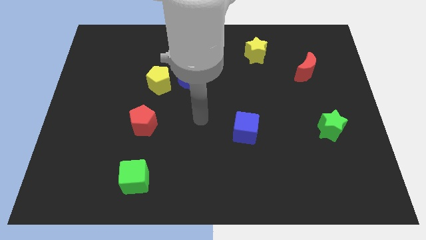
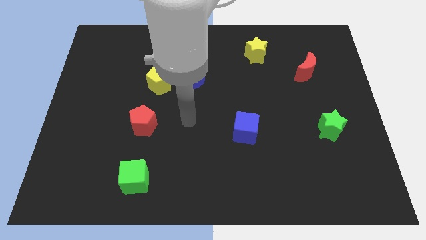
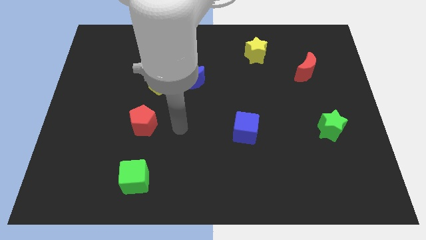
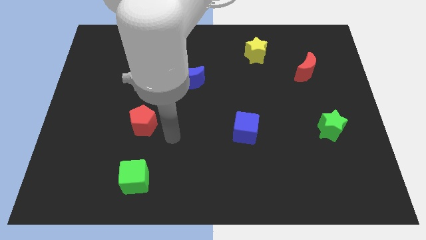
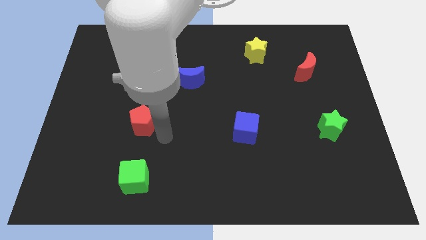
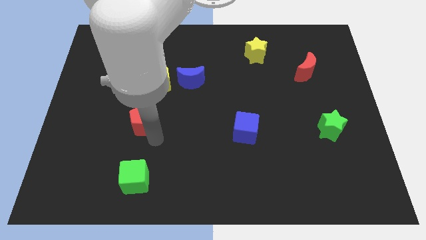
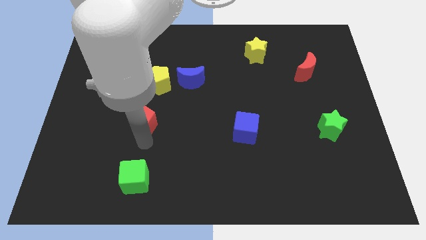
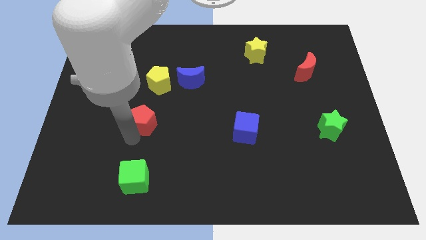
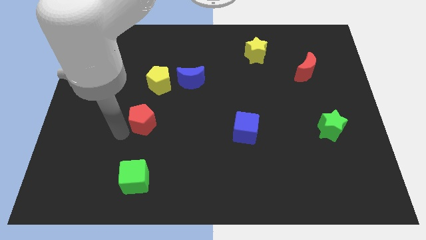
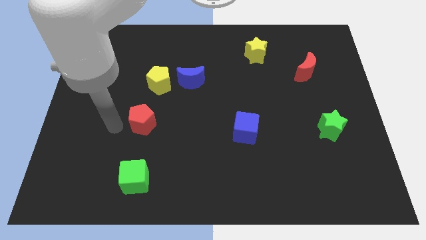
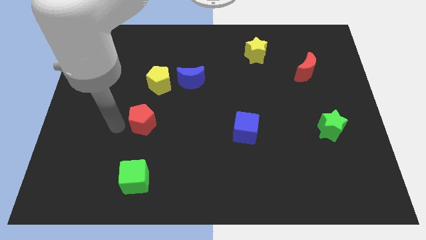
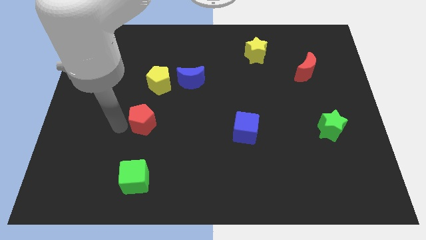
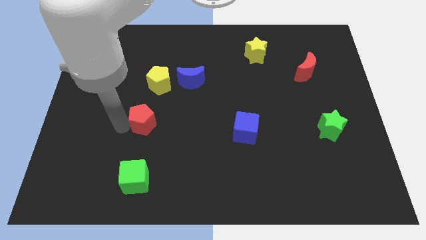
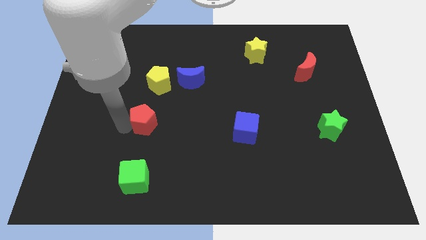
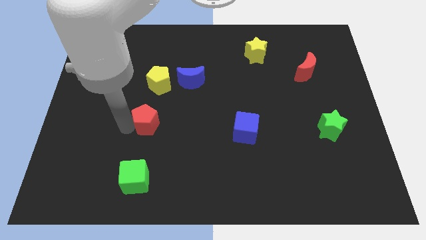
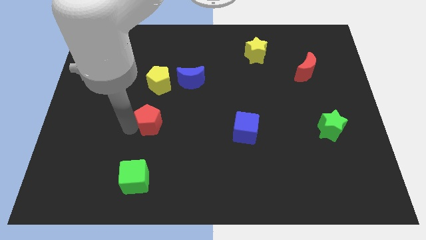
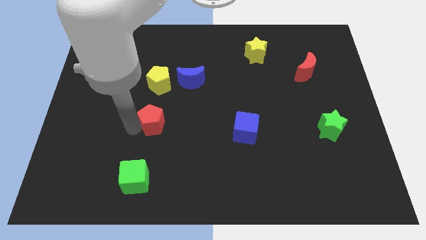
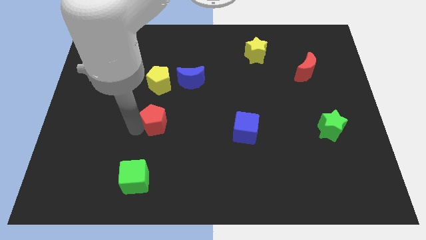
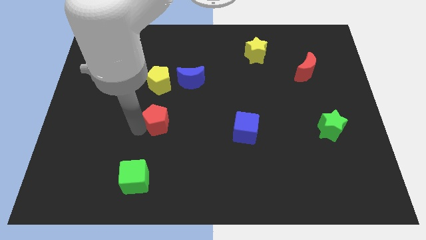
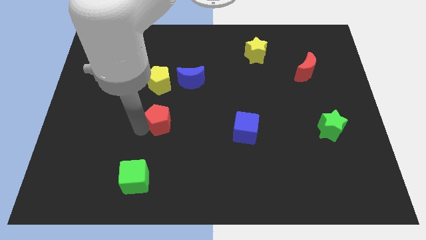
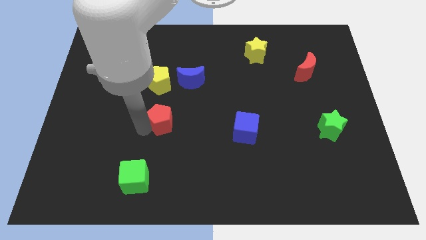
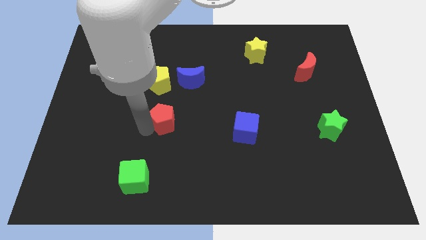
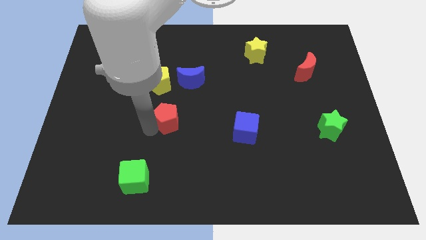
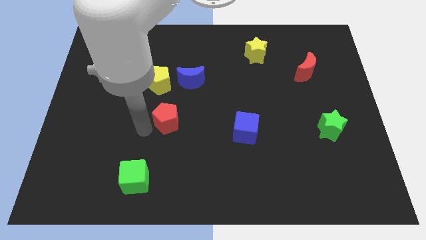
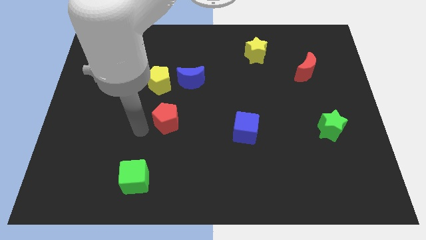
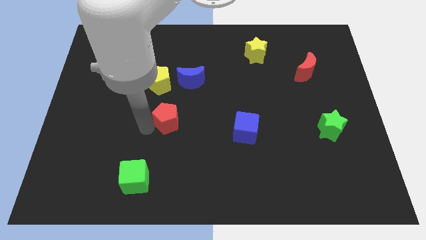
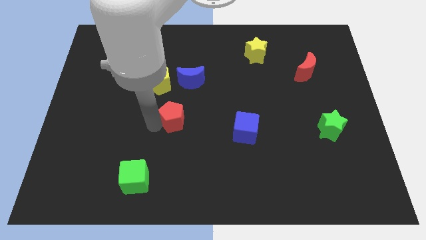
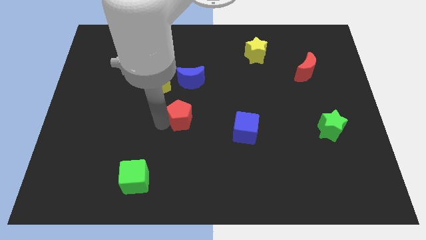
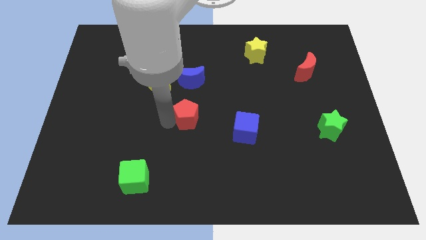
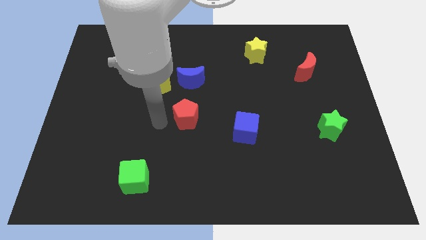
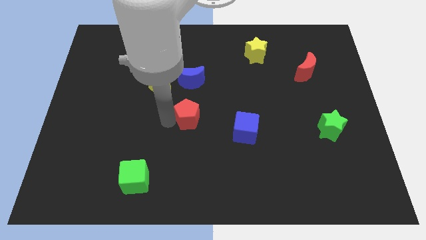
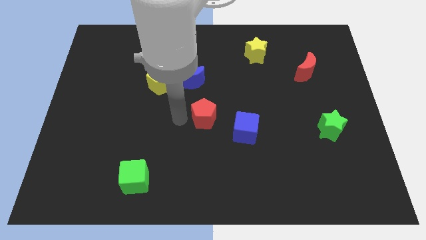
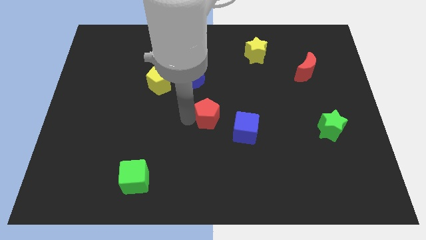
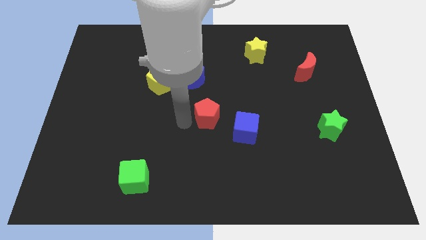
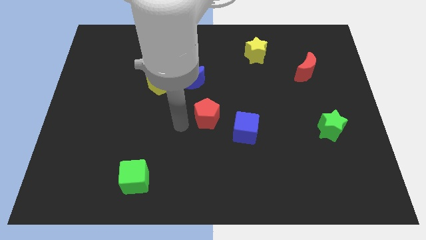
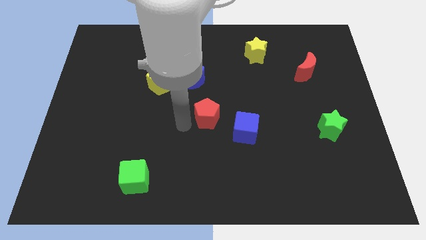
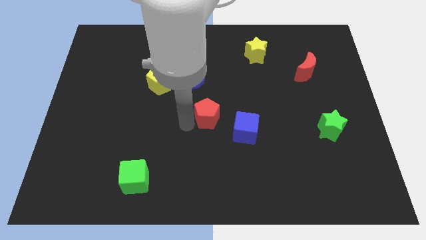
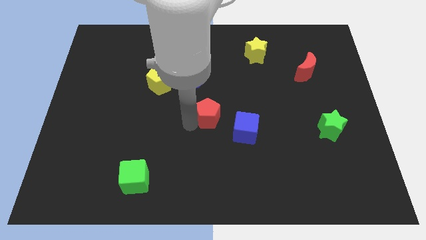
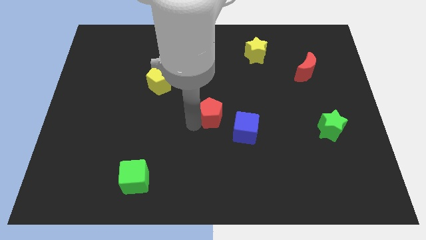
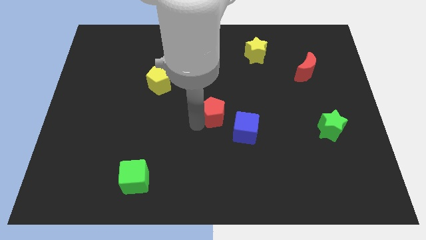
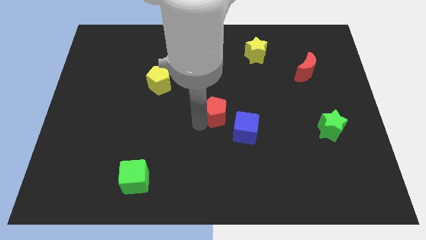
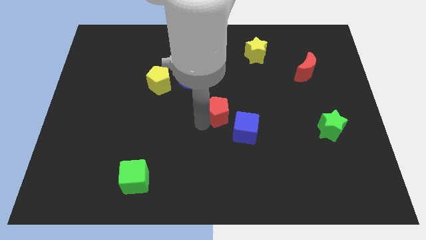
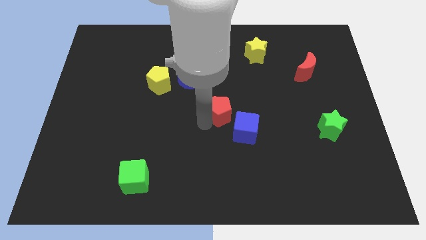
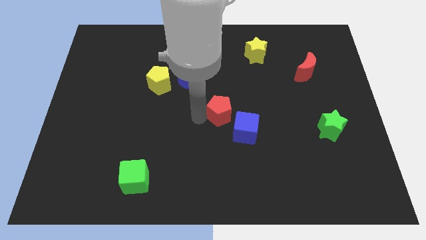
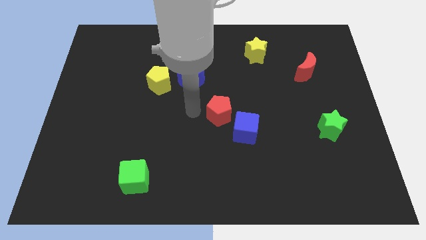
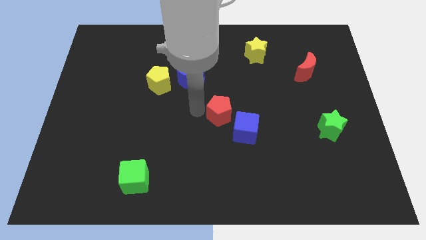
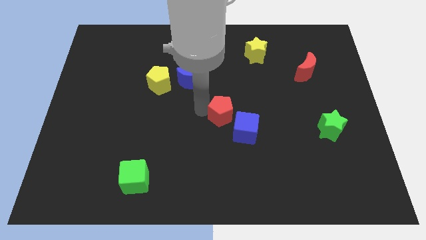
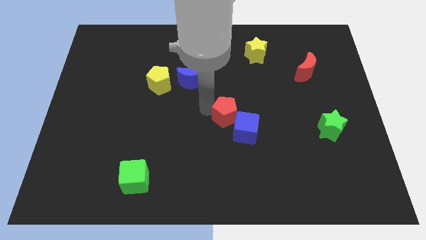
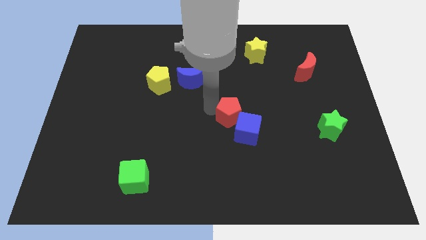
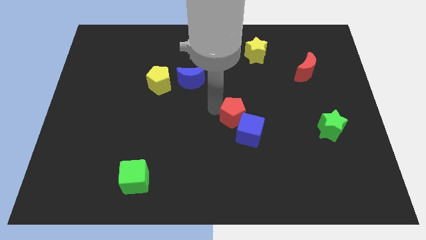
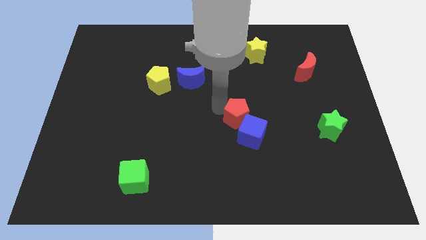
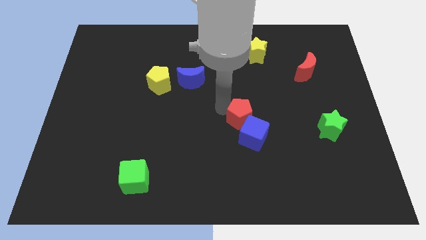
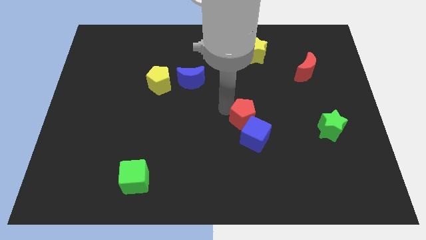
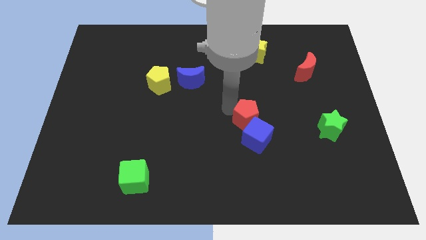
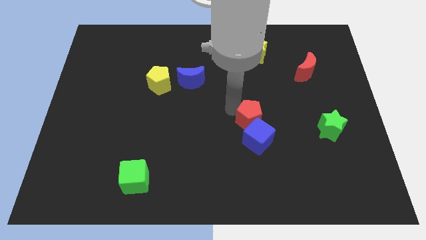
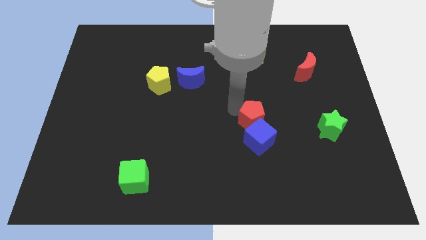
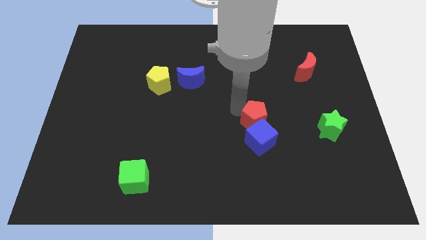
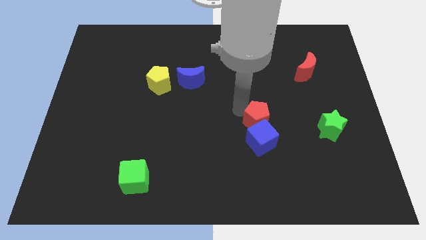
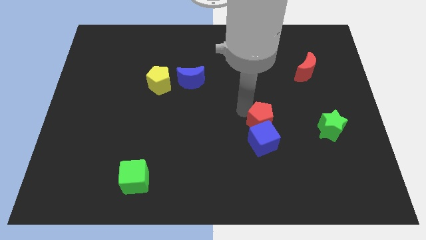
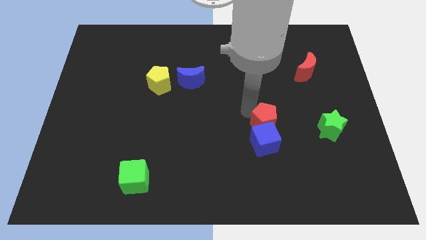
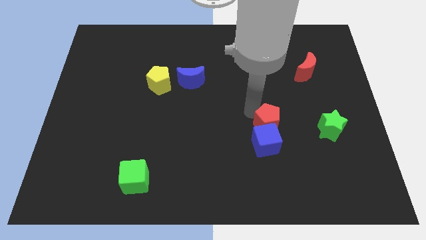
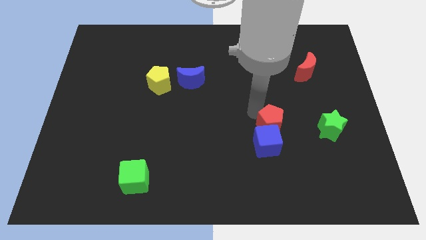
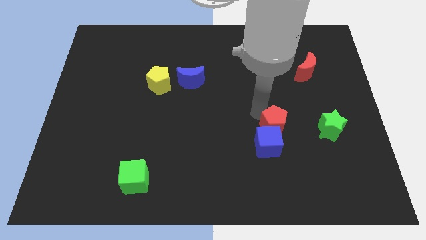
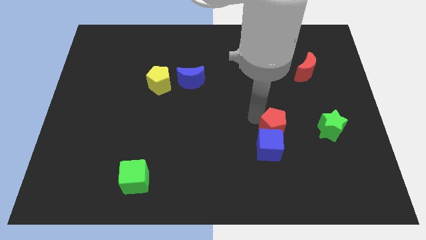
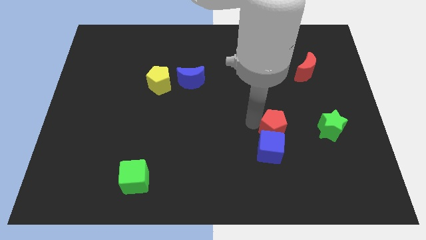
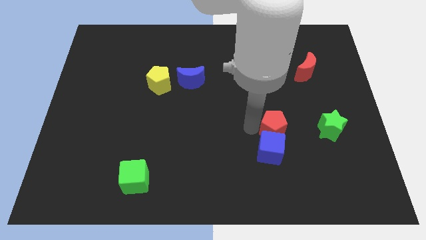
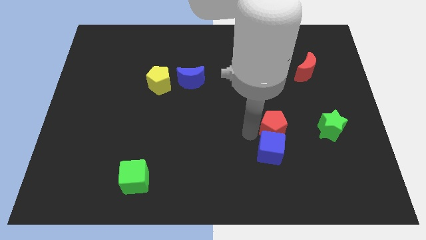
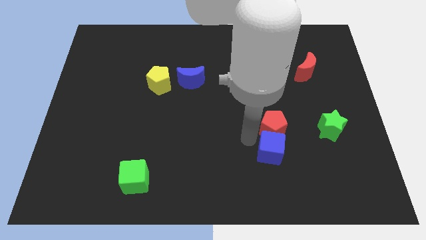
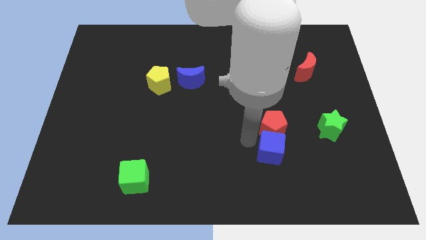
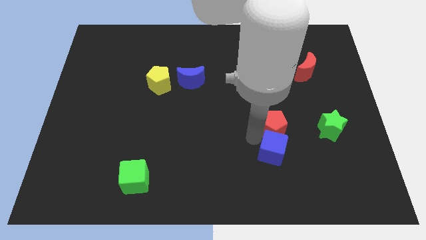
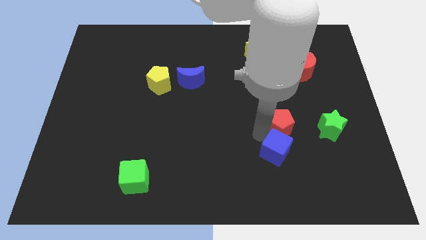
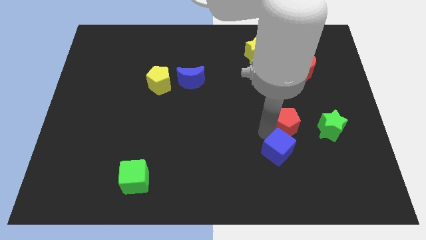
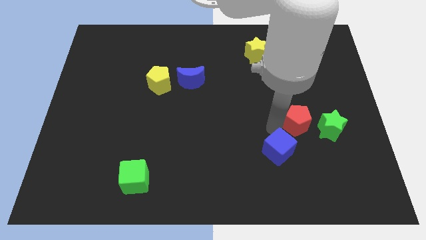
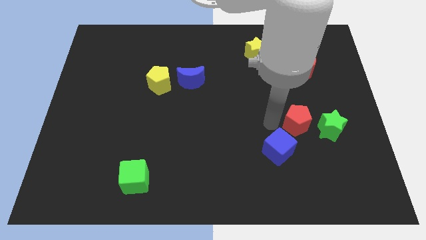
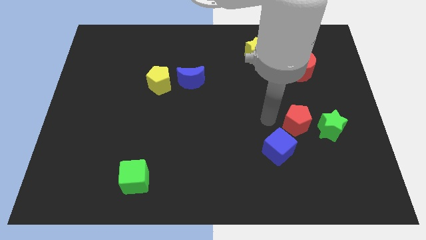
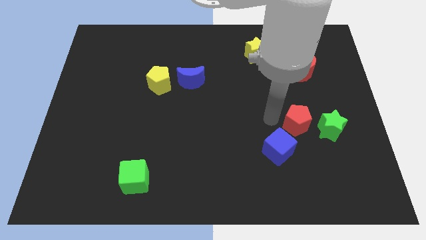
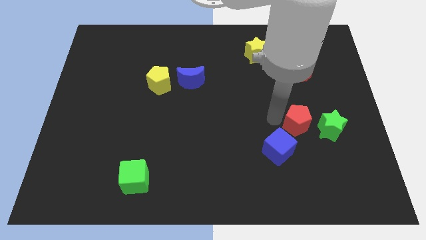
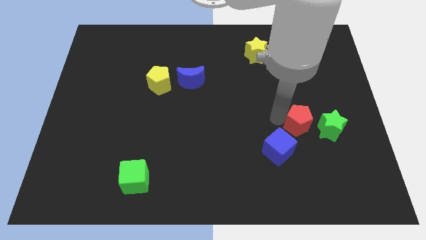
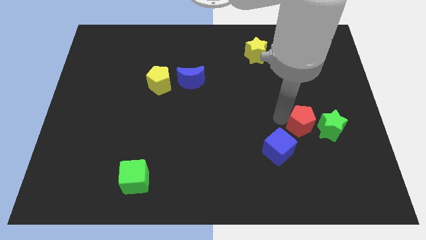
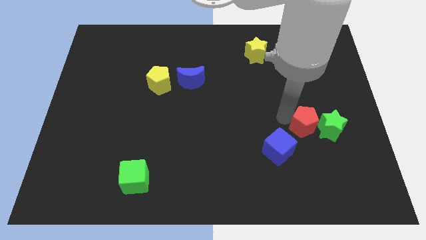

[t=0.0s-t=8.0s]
put the red pentagon next to the green star
